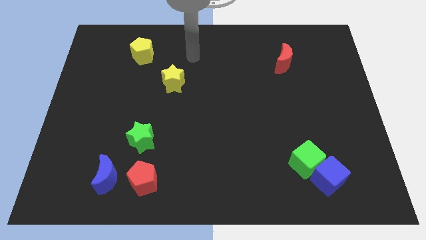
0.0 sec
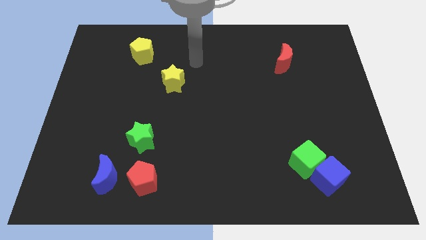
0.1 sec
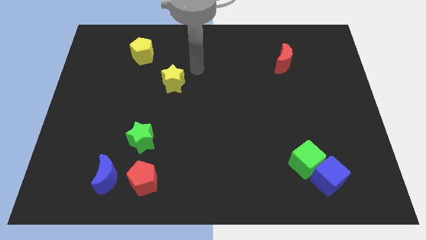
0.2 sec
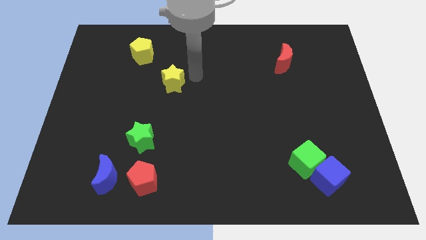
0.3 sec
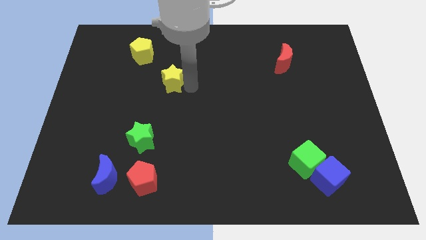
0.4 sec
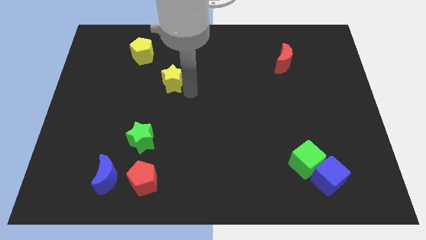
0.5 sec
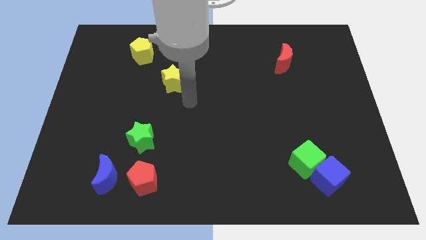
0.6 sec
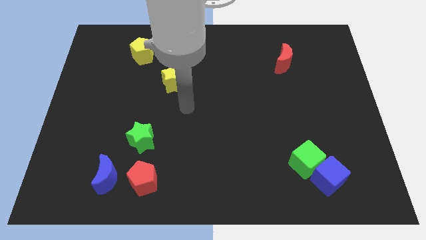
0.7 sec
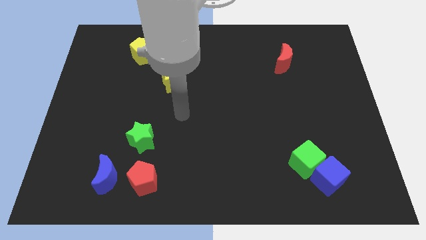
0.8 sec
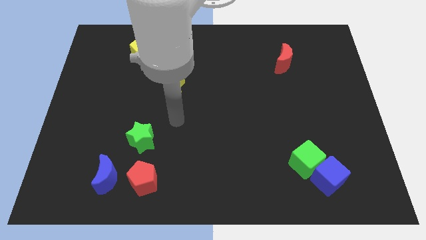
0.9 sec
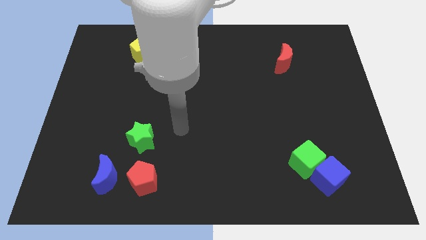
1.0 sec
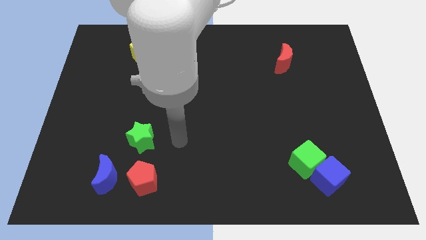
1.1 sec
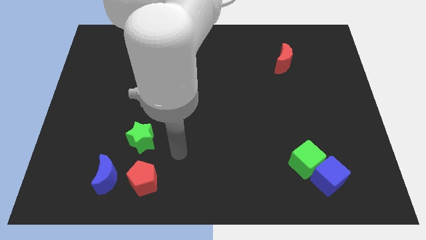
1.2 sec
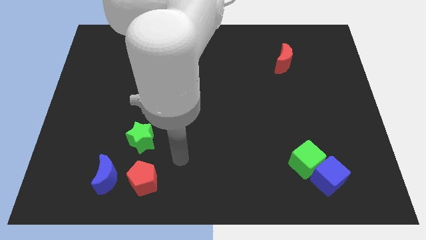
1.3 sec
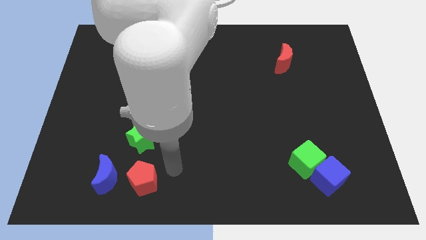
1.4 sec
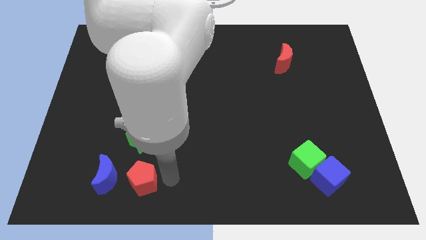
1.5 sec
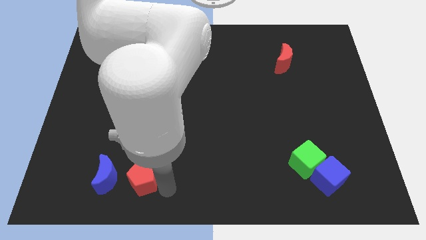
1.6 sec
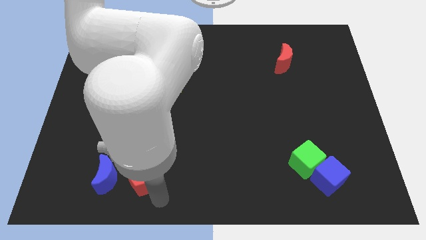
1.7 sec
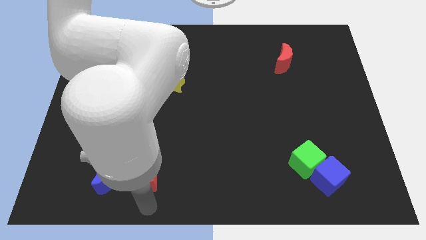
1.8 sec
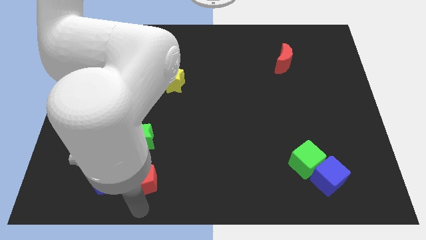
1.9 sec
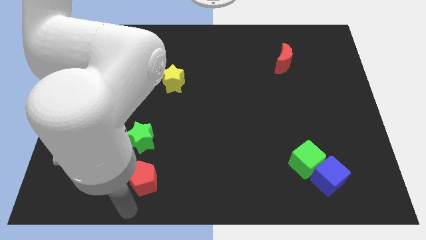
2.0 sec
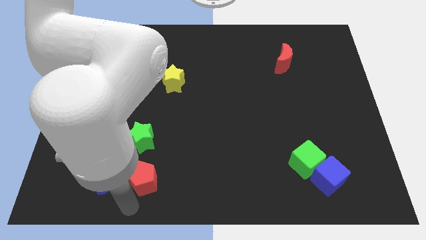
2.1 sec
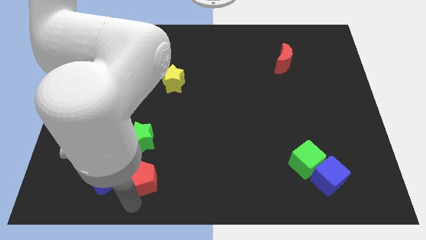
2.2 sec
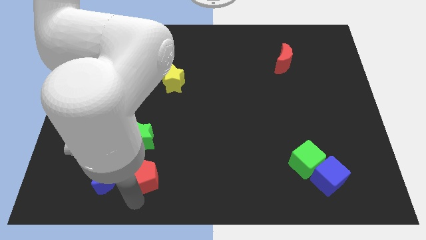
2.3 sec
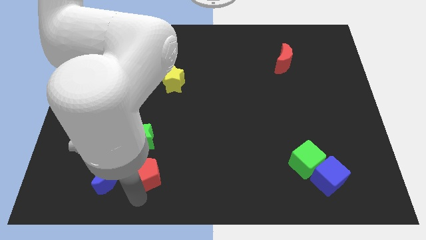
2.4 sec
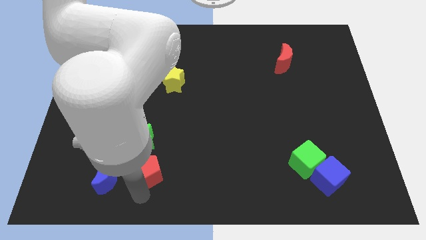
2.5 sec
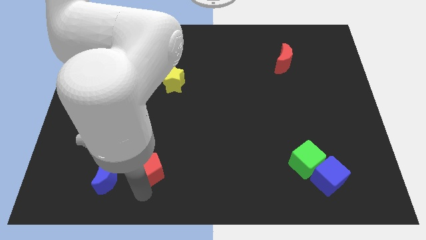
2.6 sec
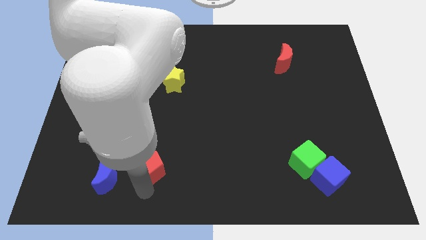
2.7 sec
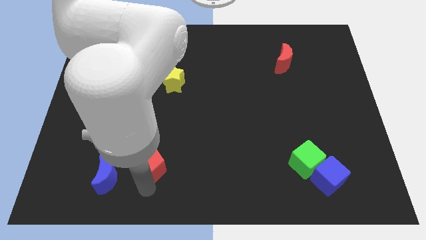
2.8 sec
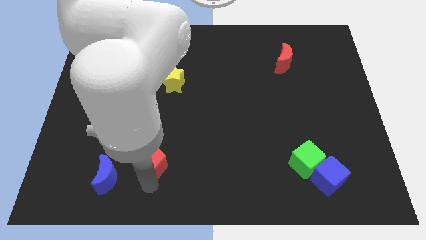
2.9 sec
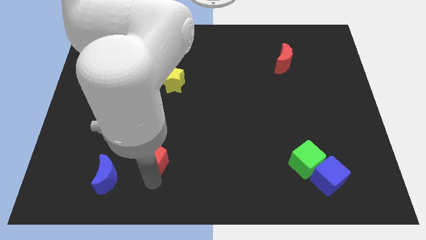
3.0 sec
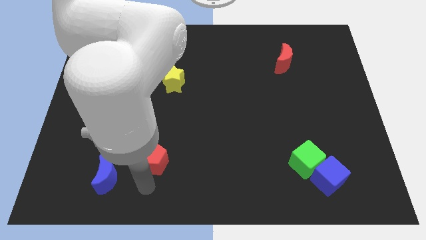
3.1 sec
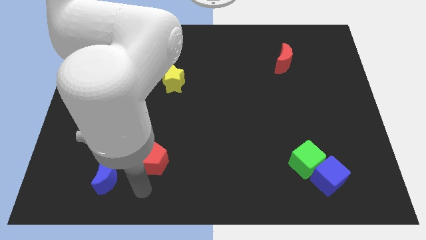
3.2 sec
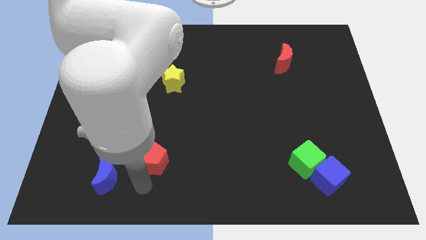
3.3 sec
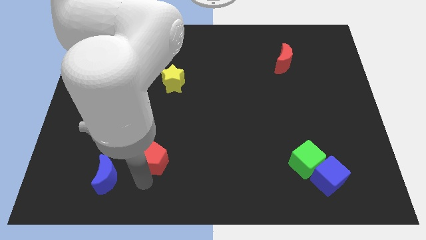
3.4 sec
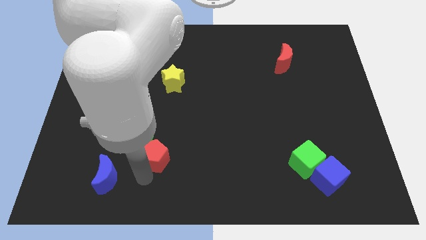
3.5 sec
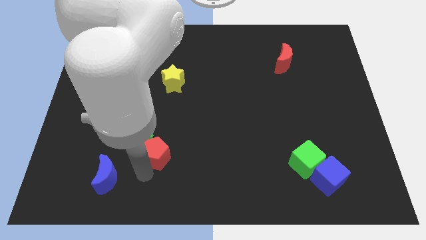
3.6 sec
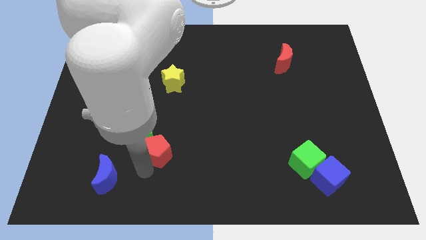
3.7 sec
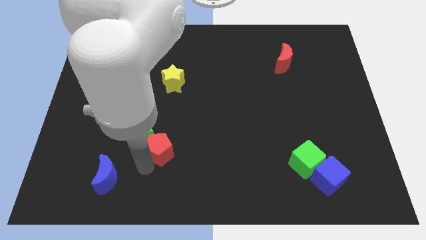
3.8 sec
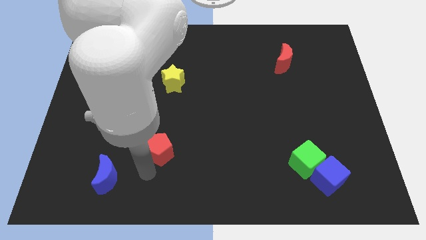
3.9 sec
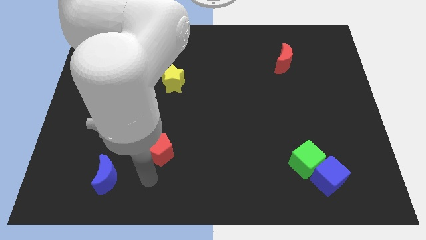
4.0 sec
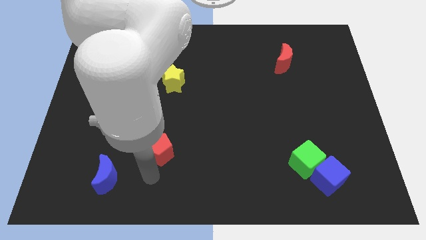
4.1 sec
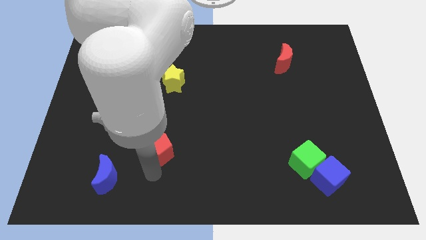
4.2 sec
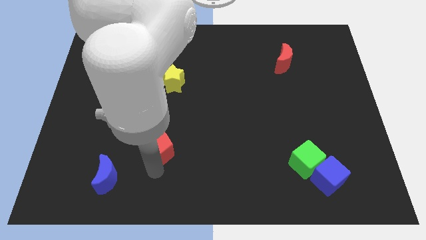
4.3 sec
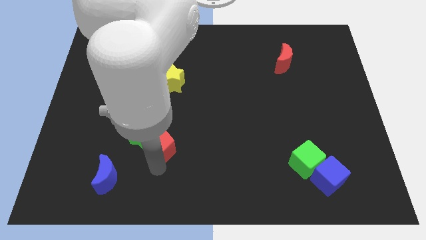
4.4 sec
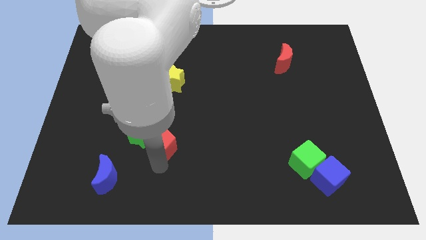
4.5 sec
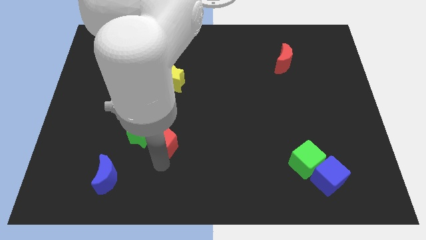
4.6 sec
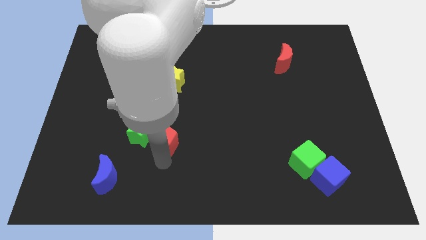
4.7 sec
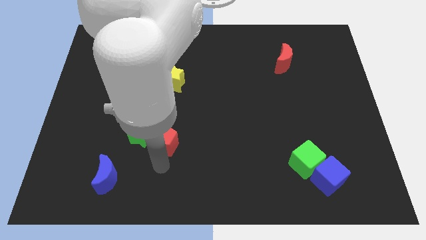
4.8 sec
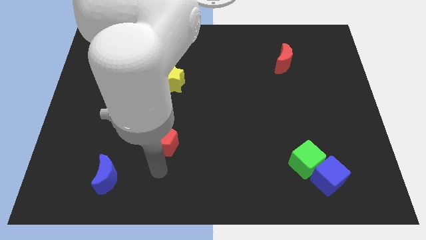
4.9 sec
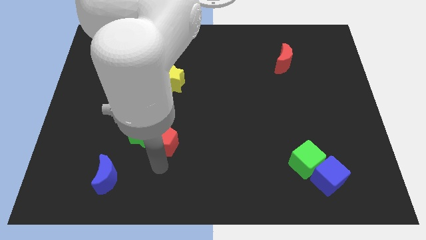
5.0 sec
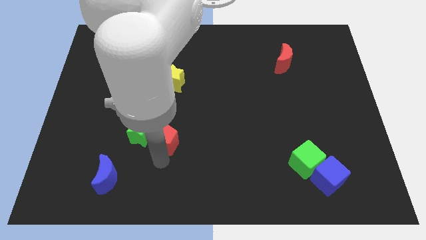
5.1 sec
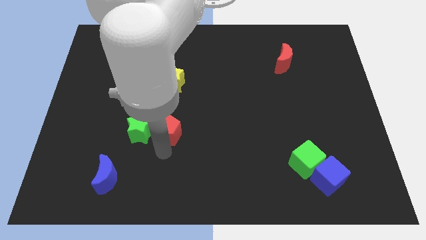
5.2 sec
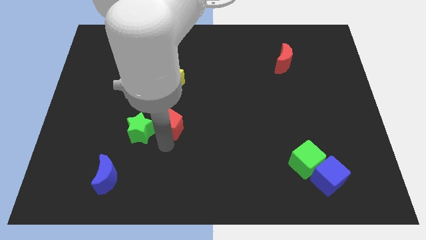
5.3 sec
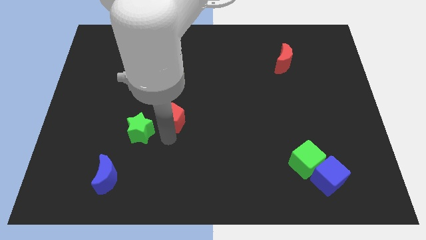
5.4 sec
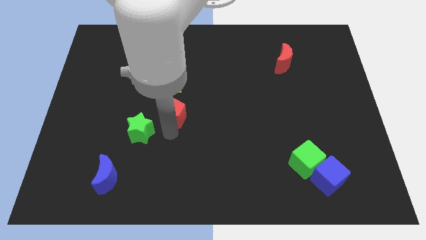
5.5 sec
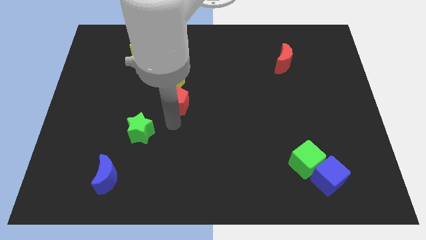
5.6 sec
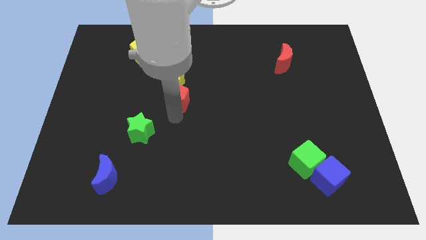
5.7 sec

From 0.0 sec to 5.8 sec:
slide the red pentagon towards the yellow star

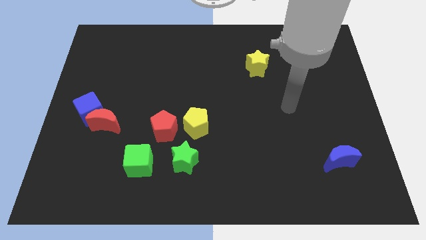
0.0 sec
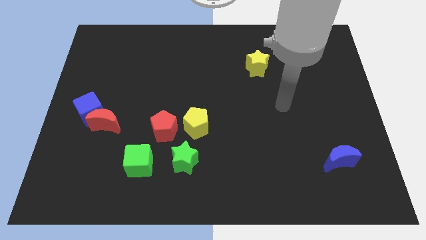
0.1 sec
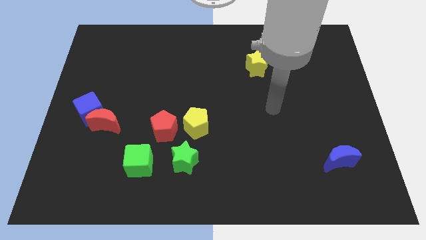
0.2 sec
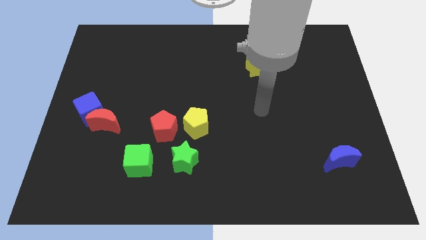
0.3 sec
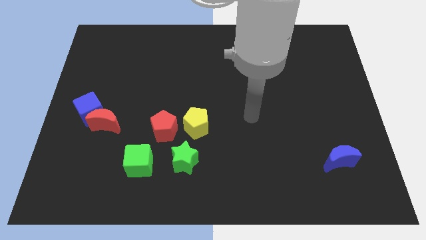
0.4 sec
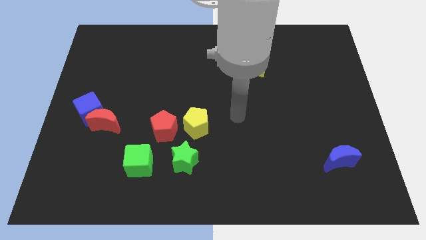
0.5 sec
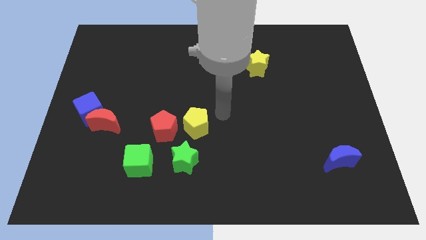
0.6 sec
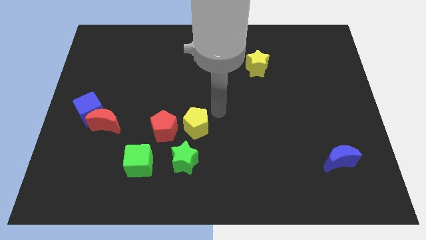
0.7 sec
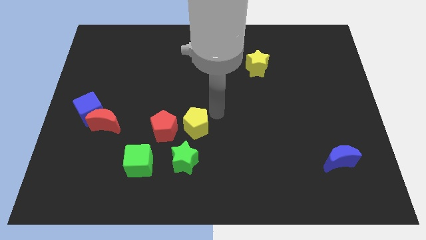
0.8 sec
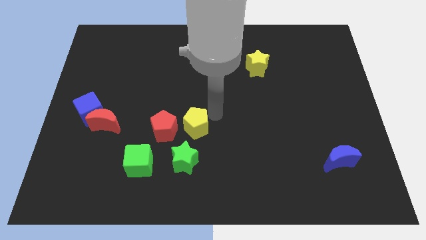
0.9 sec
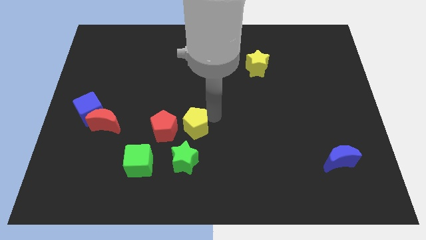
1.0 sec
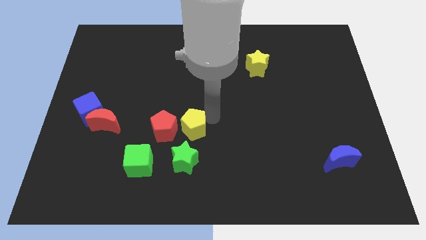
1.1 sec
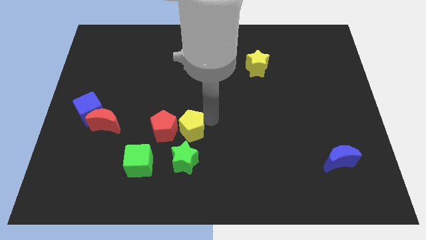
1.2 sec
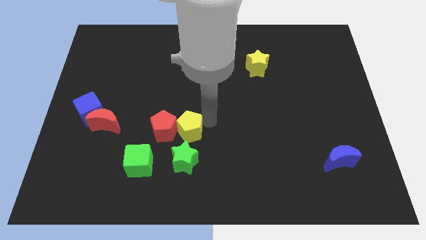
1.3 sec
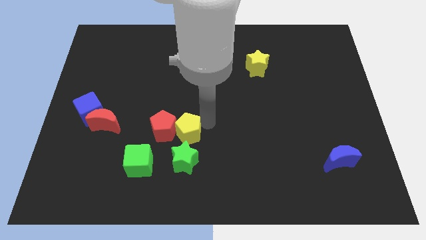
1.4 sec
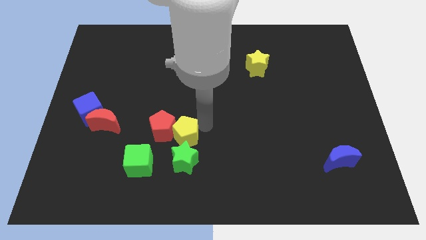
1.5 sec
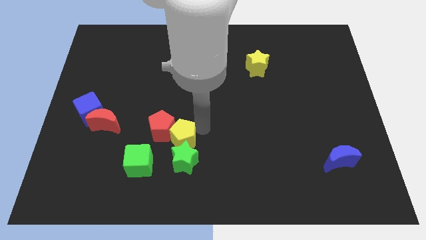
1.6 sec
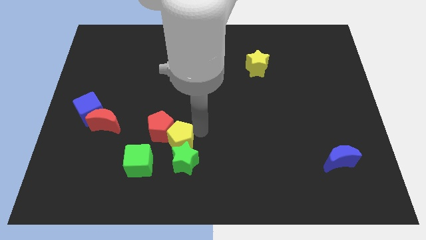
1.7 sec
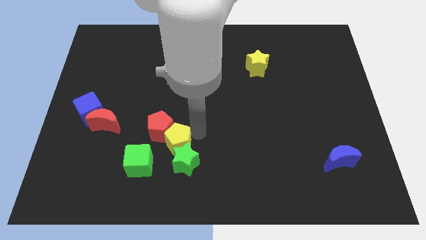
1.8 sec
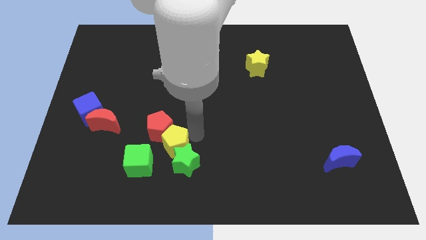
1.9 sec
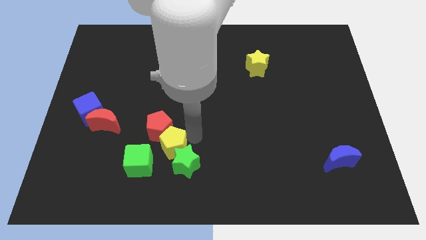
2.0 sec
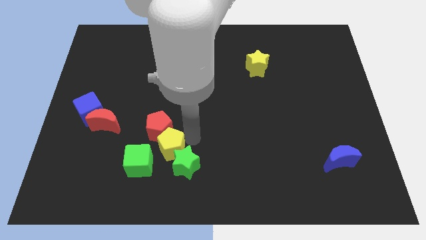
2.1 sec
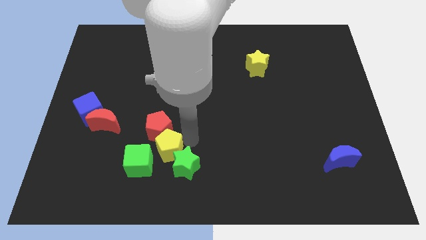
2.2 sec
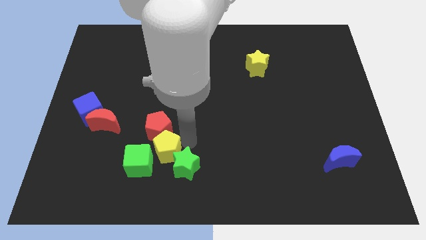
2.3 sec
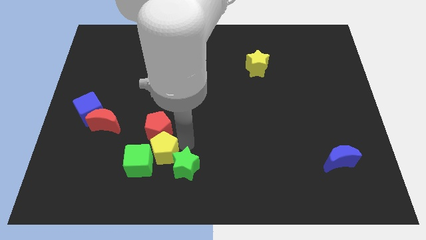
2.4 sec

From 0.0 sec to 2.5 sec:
put the yellow pentagon close to the green cube
